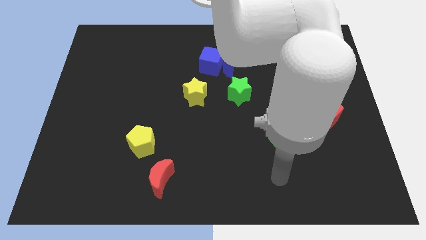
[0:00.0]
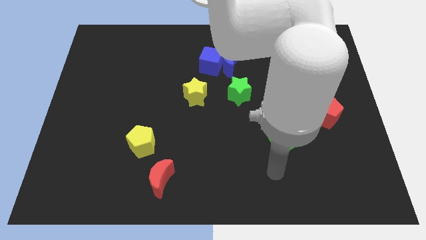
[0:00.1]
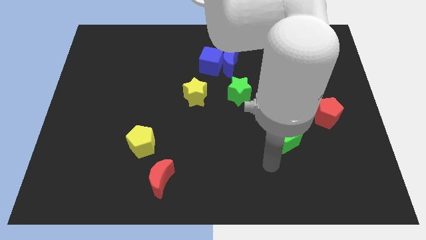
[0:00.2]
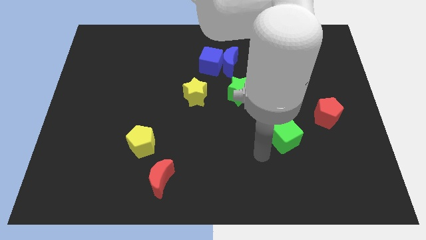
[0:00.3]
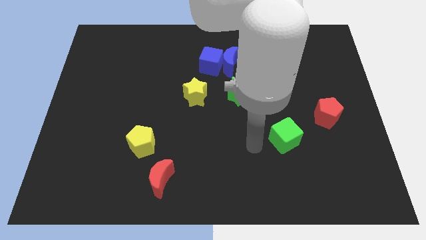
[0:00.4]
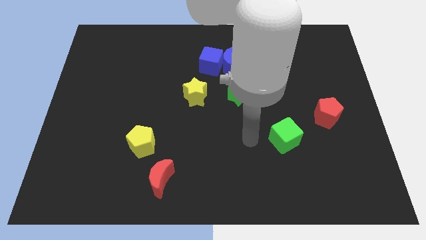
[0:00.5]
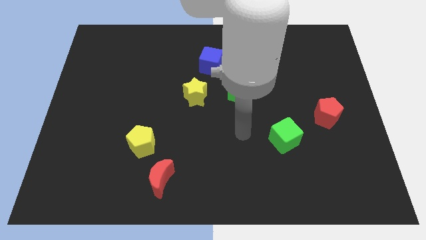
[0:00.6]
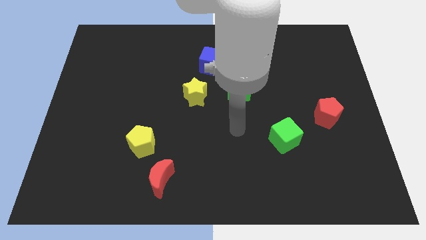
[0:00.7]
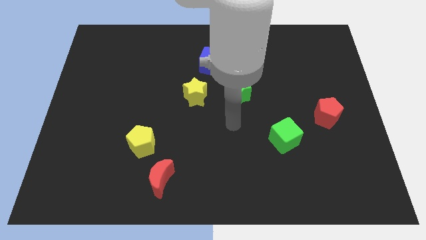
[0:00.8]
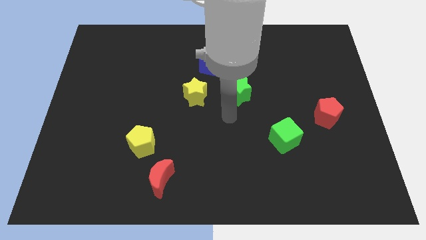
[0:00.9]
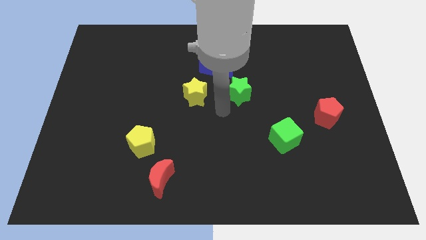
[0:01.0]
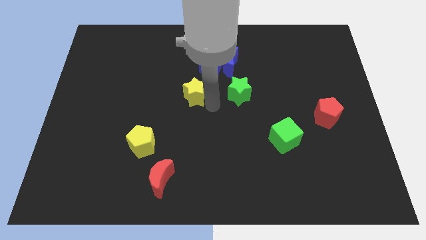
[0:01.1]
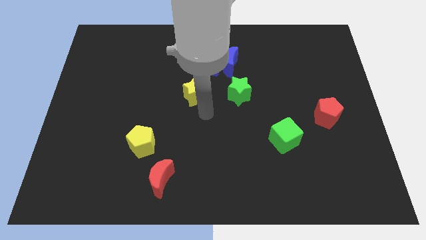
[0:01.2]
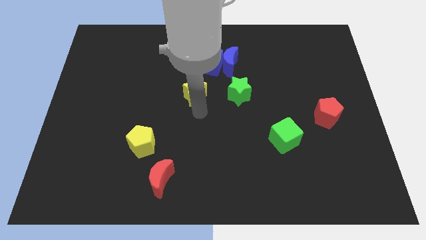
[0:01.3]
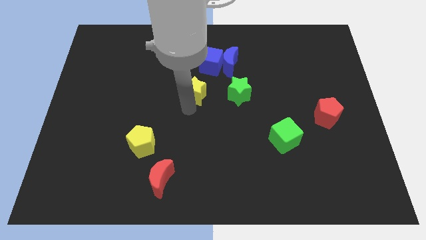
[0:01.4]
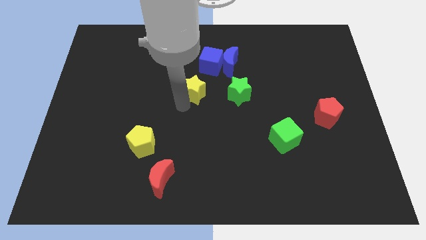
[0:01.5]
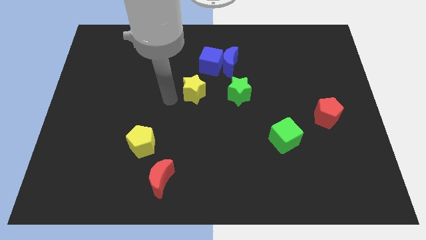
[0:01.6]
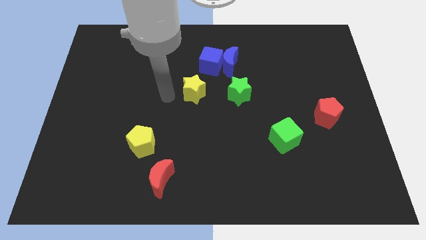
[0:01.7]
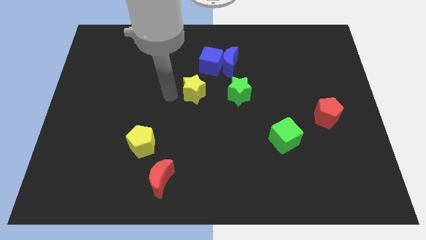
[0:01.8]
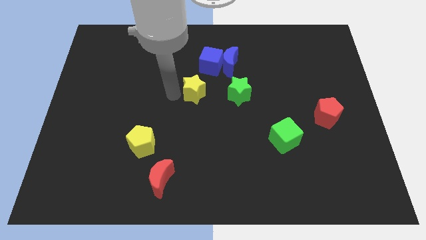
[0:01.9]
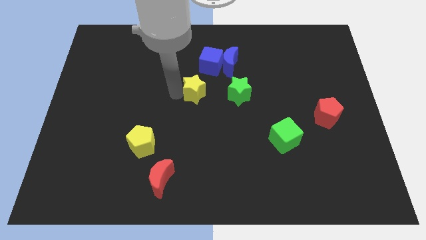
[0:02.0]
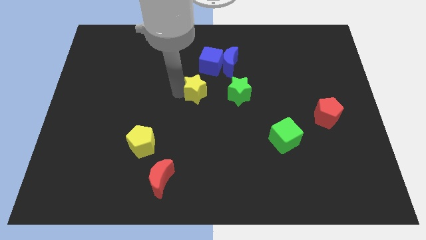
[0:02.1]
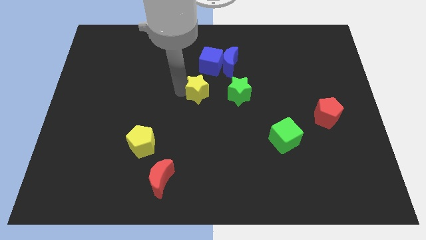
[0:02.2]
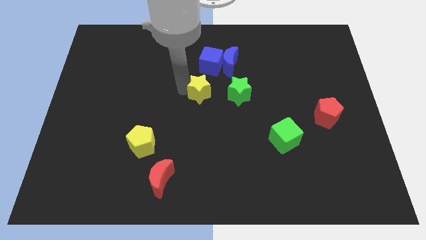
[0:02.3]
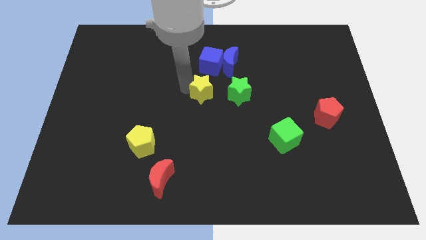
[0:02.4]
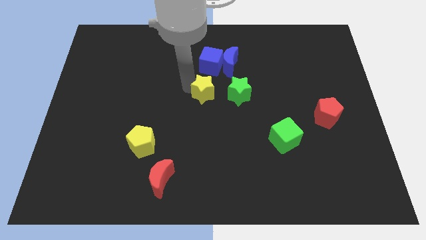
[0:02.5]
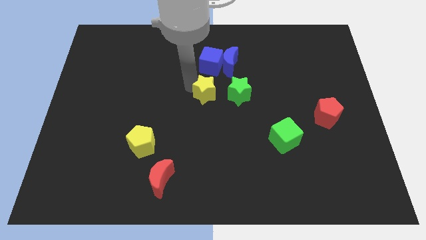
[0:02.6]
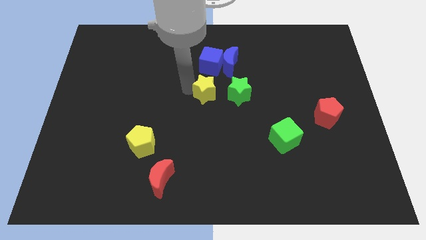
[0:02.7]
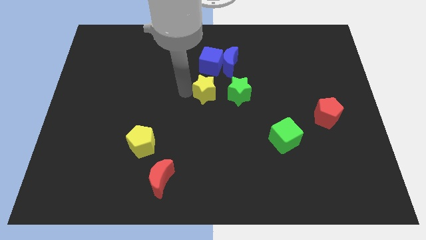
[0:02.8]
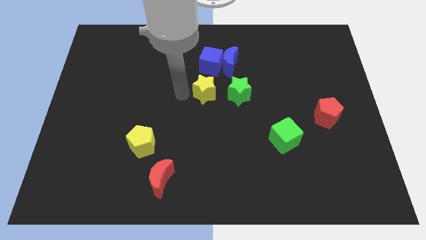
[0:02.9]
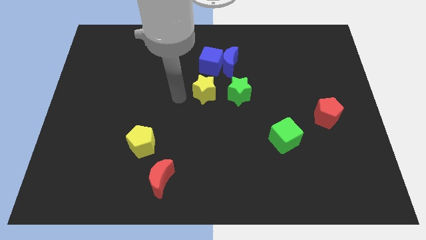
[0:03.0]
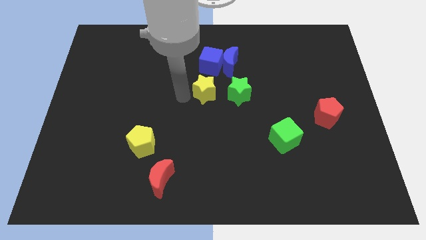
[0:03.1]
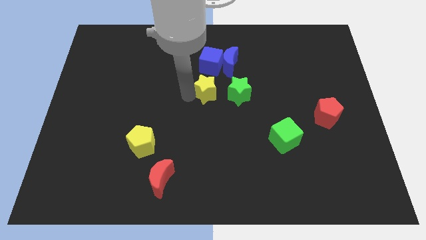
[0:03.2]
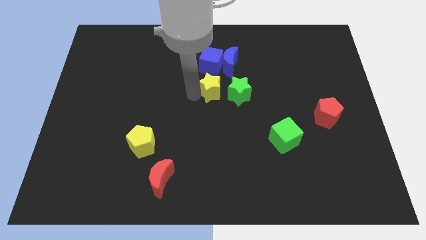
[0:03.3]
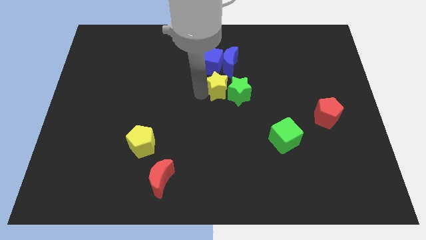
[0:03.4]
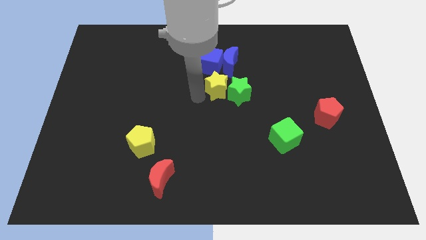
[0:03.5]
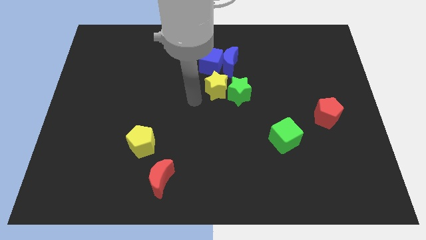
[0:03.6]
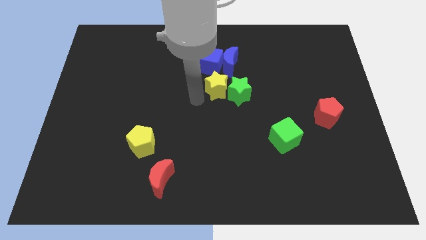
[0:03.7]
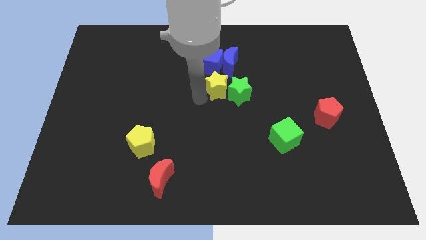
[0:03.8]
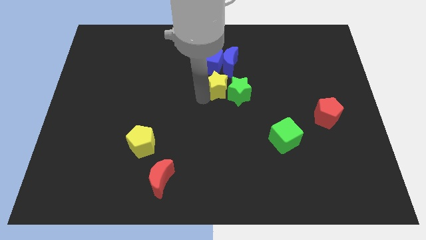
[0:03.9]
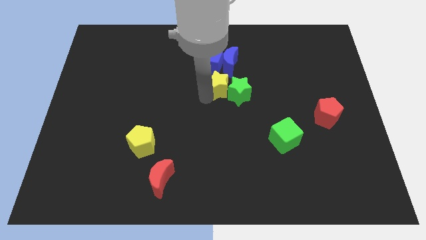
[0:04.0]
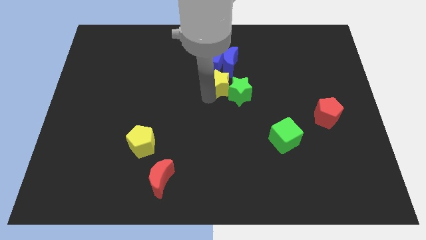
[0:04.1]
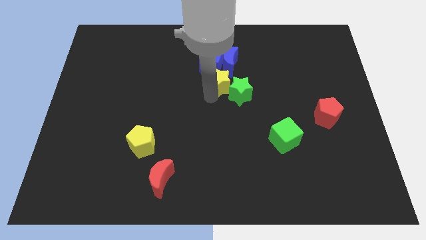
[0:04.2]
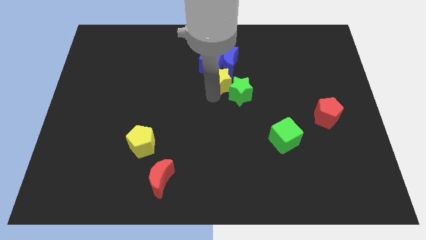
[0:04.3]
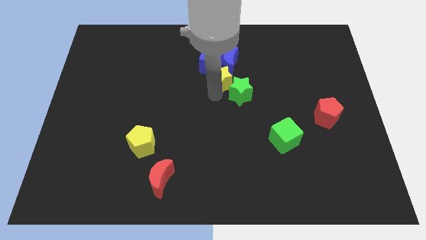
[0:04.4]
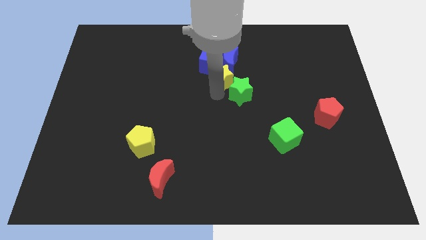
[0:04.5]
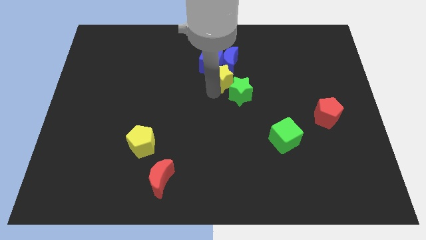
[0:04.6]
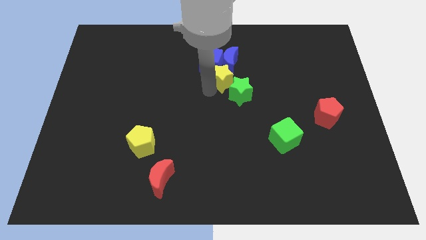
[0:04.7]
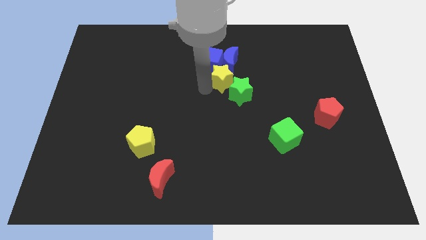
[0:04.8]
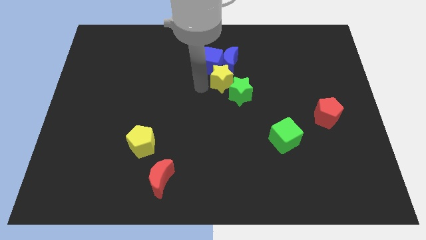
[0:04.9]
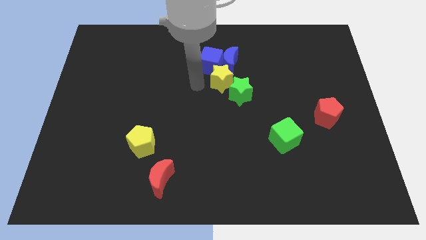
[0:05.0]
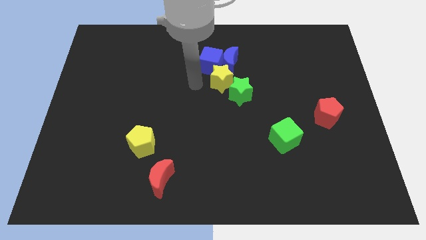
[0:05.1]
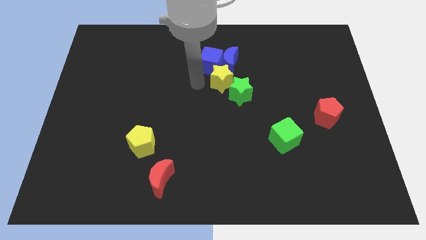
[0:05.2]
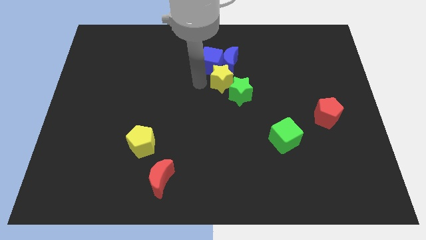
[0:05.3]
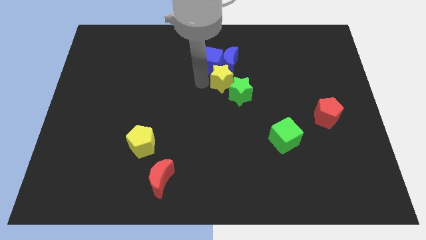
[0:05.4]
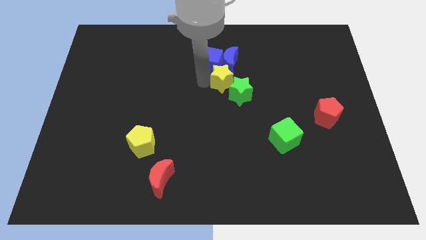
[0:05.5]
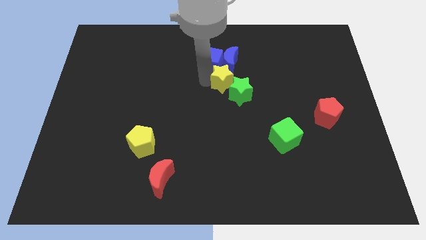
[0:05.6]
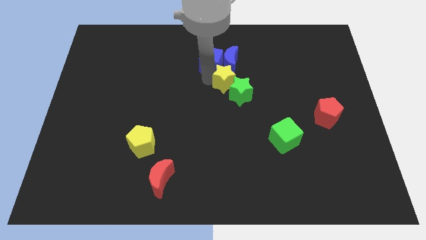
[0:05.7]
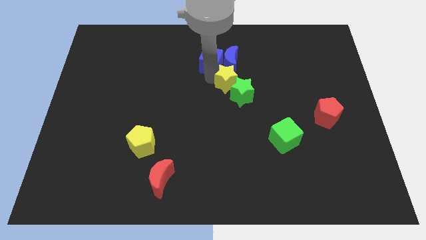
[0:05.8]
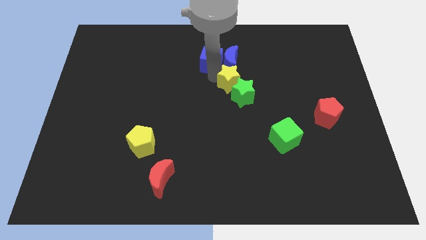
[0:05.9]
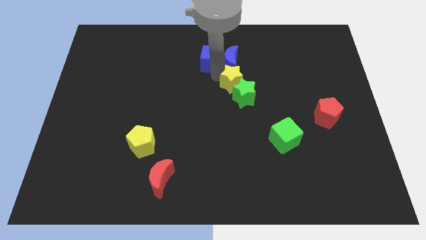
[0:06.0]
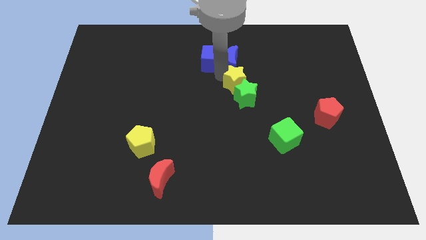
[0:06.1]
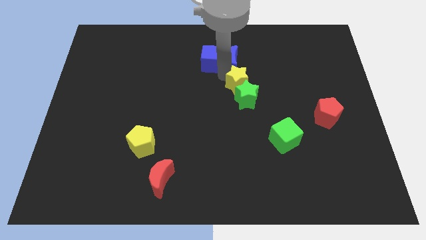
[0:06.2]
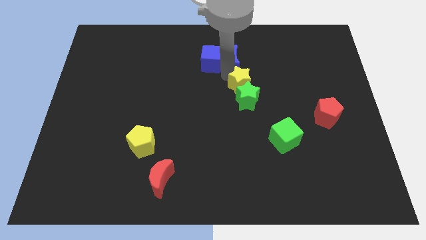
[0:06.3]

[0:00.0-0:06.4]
move the yellow star to the top right side of the green star

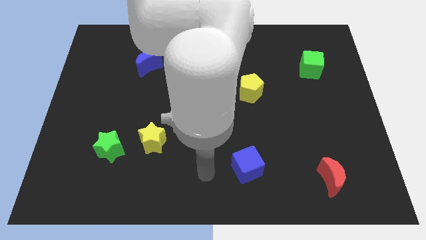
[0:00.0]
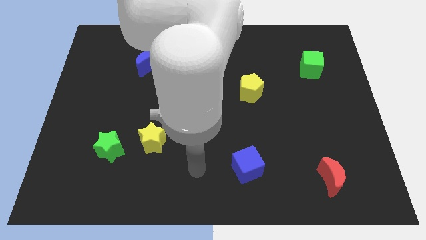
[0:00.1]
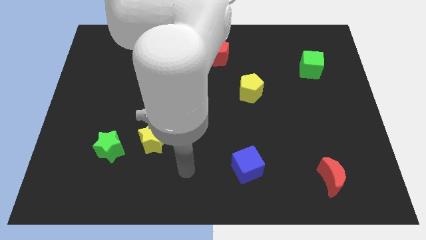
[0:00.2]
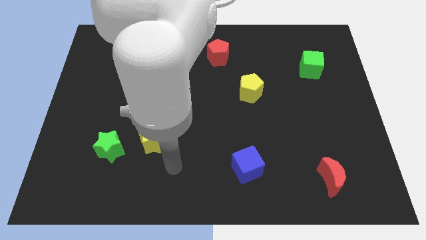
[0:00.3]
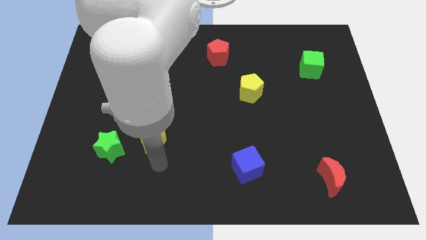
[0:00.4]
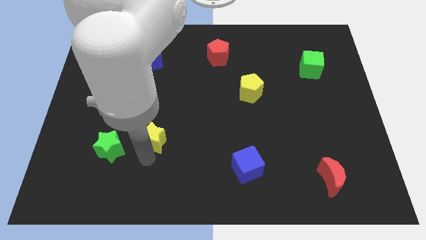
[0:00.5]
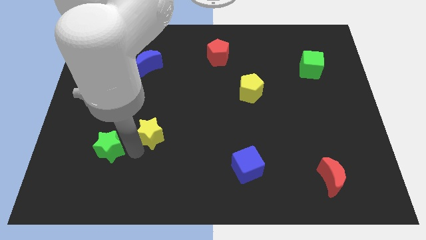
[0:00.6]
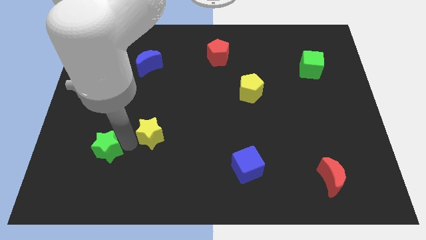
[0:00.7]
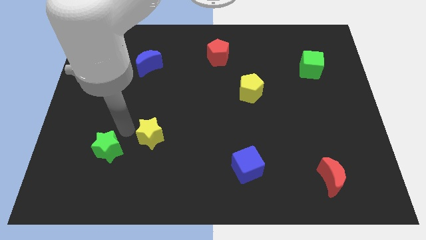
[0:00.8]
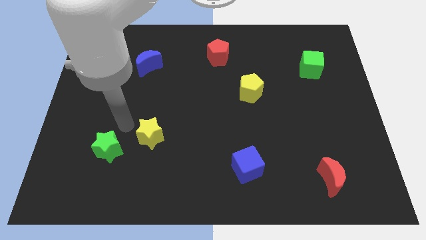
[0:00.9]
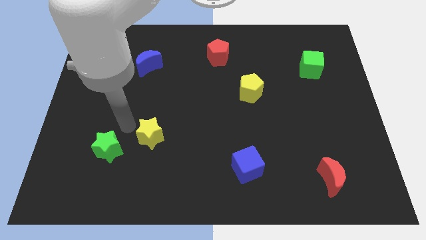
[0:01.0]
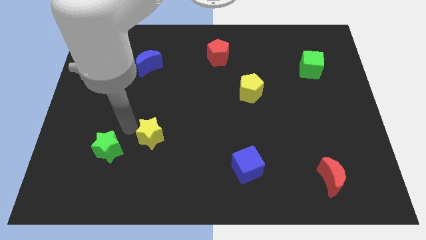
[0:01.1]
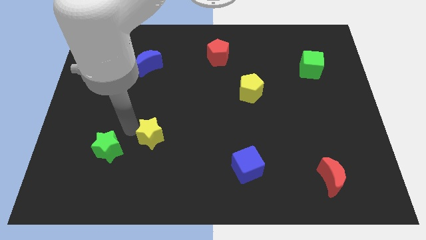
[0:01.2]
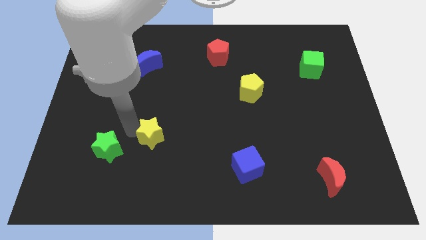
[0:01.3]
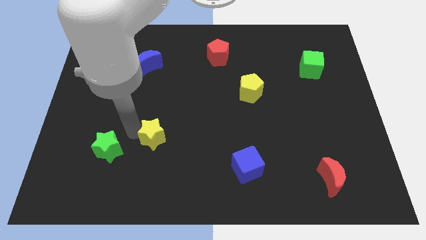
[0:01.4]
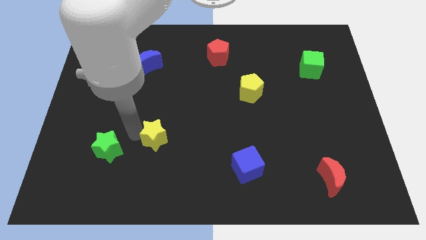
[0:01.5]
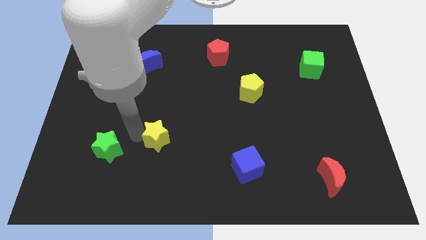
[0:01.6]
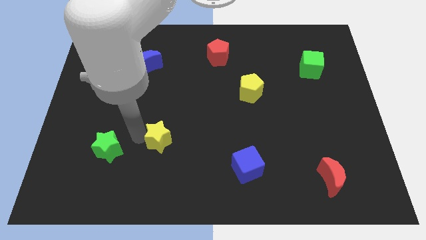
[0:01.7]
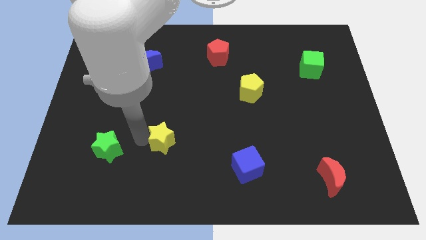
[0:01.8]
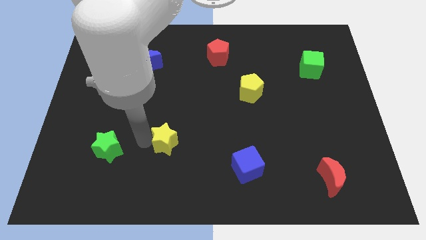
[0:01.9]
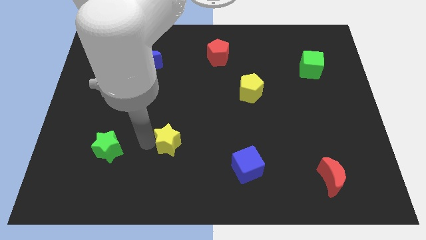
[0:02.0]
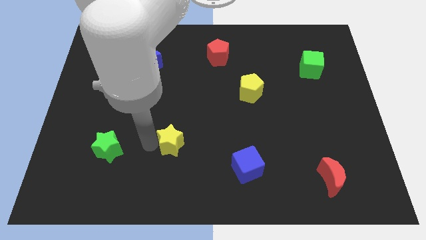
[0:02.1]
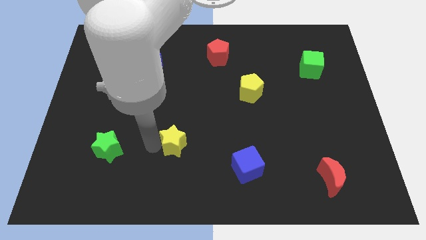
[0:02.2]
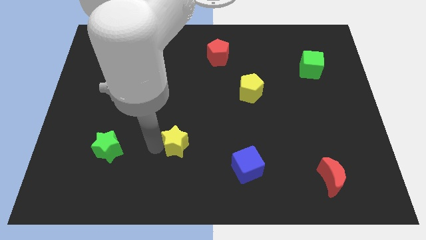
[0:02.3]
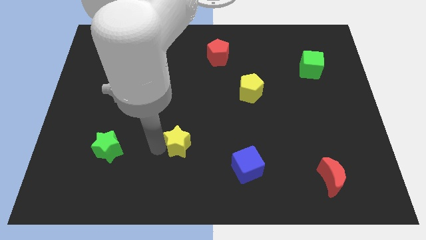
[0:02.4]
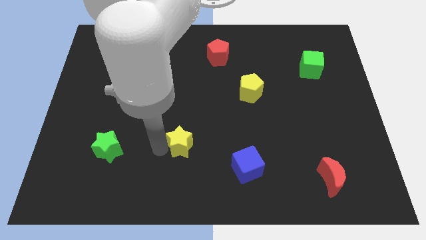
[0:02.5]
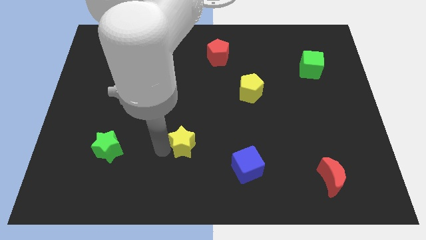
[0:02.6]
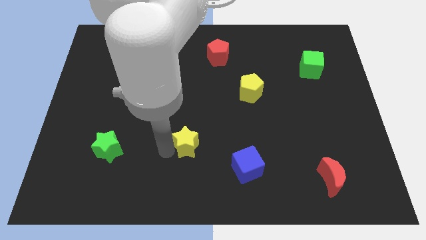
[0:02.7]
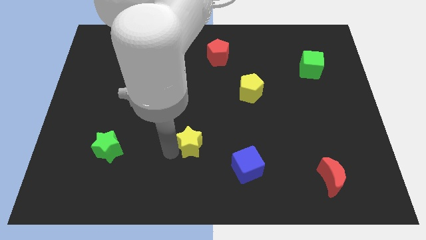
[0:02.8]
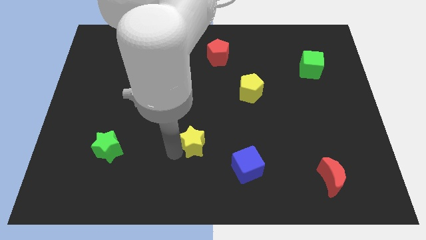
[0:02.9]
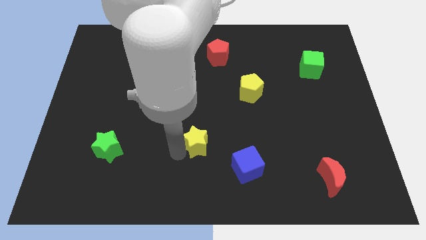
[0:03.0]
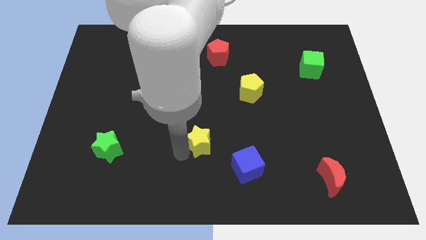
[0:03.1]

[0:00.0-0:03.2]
move the yellow star to the top left of the blue cube
